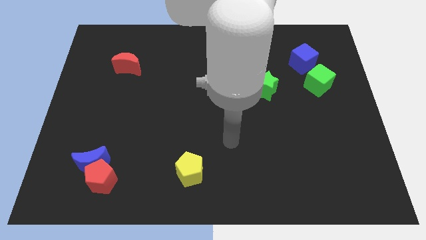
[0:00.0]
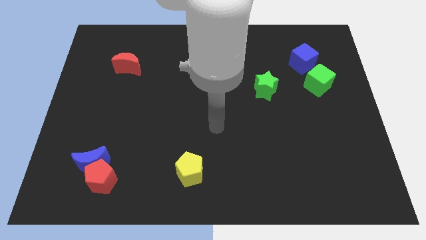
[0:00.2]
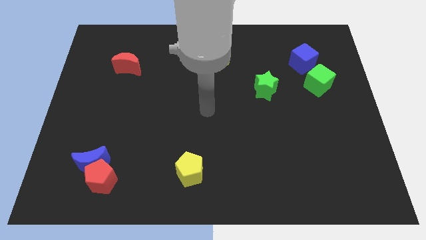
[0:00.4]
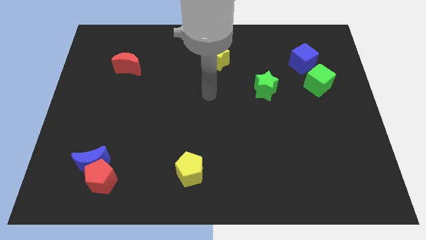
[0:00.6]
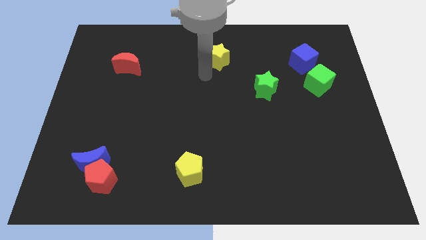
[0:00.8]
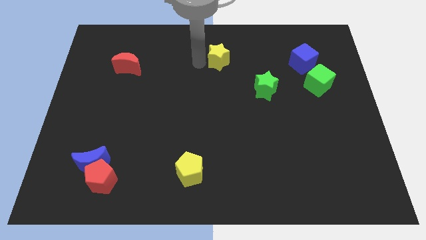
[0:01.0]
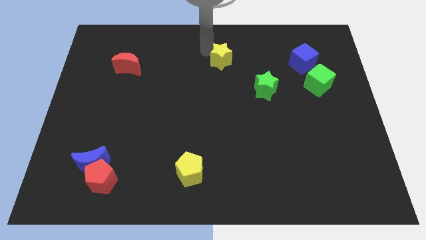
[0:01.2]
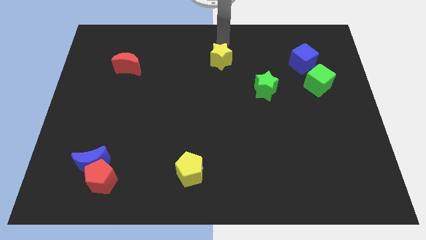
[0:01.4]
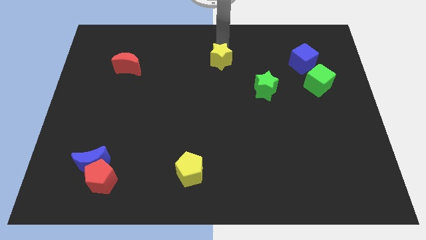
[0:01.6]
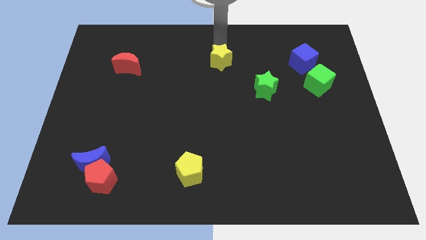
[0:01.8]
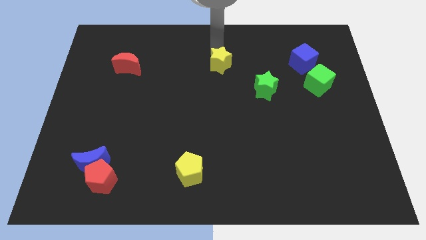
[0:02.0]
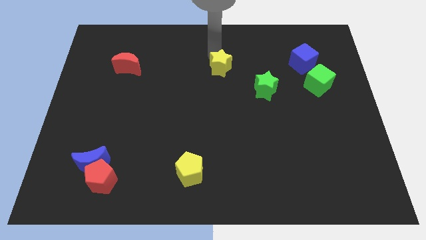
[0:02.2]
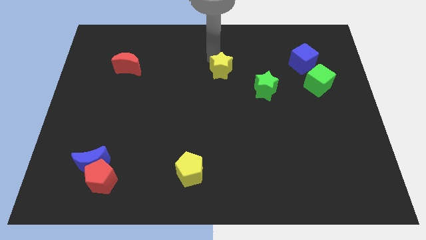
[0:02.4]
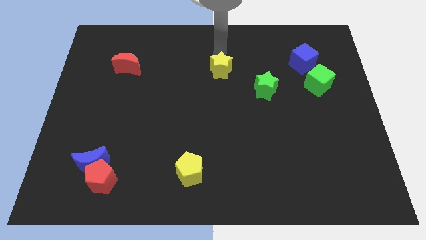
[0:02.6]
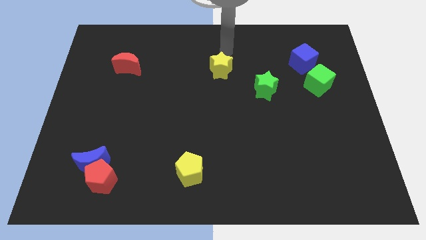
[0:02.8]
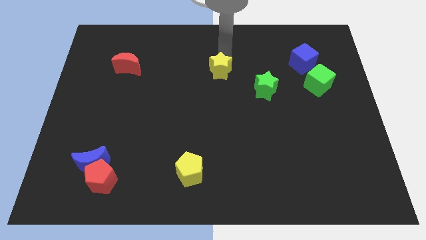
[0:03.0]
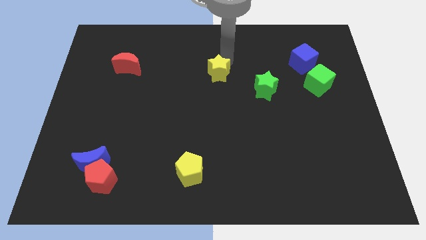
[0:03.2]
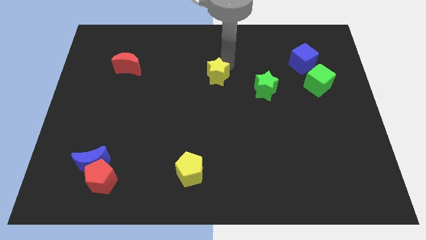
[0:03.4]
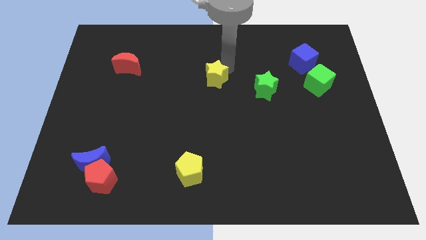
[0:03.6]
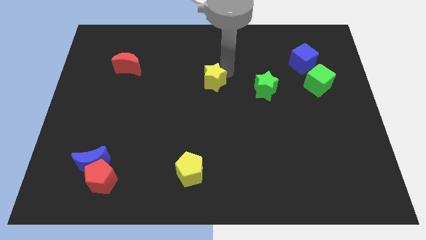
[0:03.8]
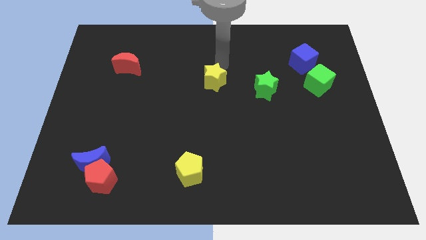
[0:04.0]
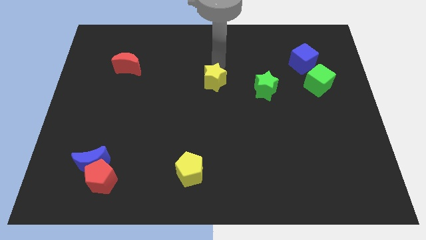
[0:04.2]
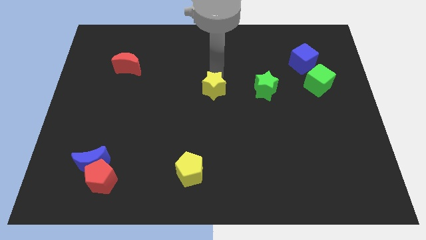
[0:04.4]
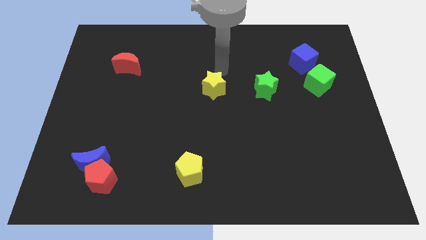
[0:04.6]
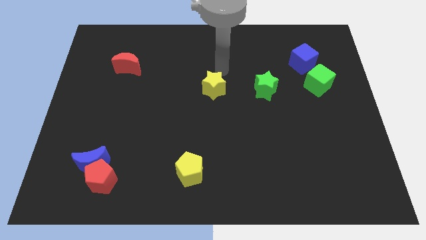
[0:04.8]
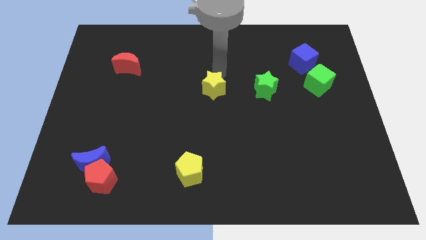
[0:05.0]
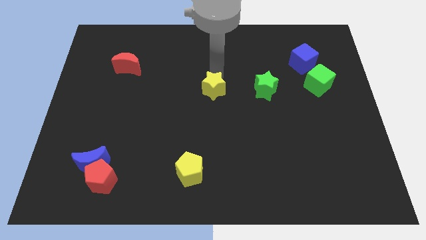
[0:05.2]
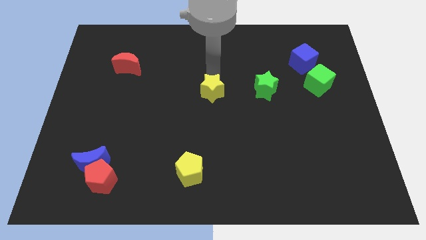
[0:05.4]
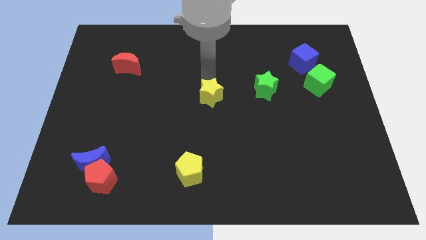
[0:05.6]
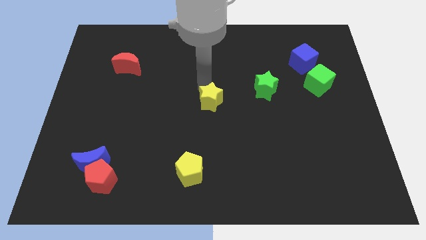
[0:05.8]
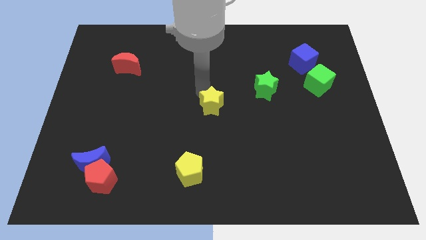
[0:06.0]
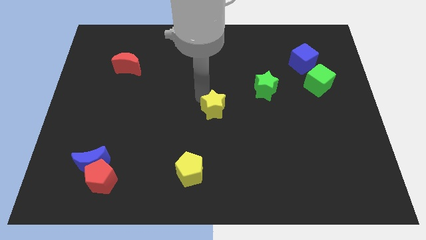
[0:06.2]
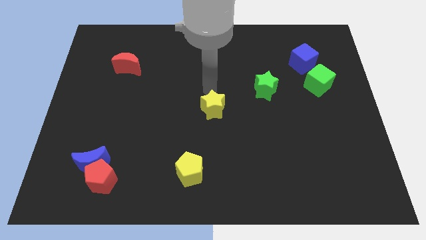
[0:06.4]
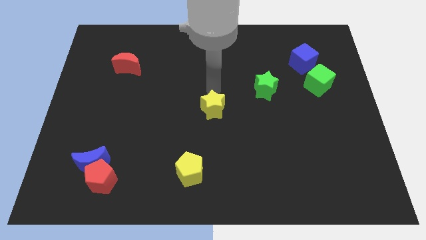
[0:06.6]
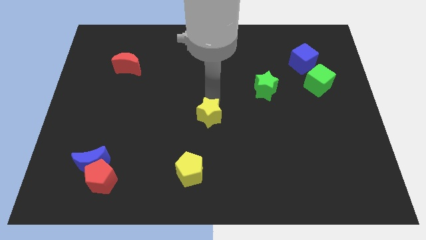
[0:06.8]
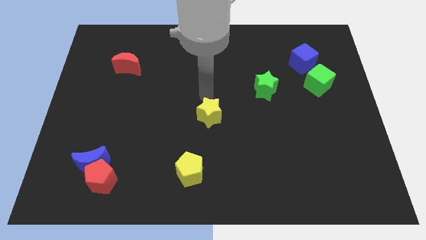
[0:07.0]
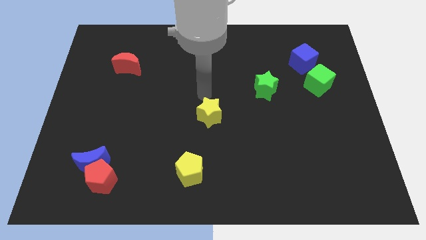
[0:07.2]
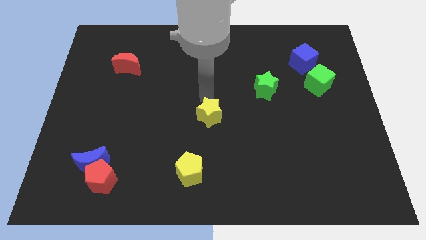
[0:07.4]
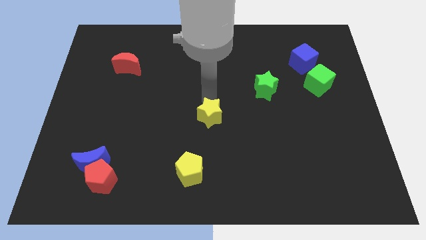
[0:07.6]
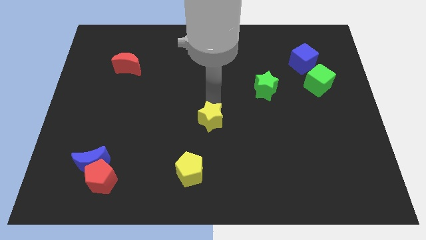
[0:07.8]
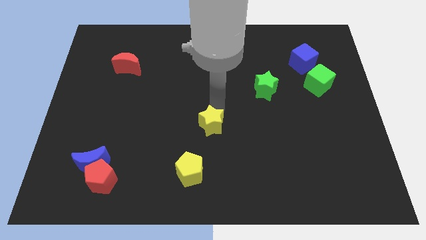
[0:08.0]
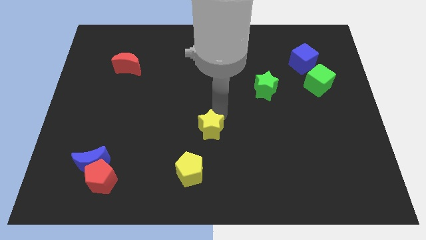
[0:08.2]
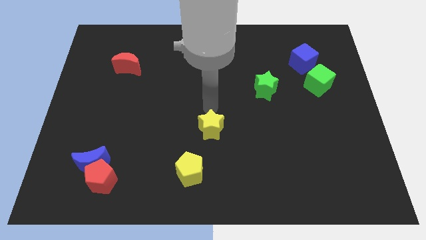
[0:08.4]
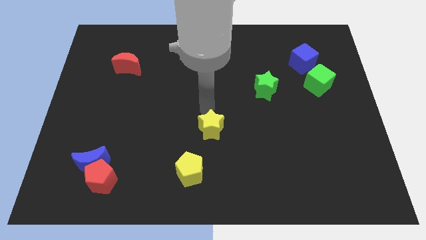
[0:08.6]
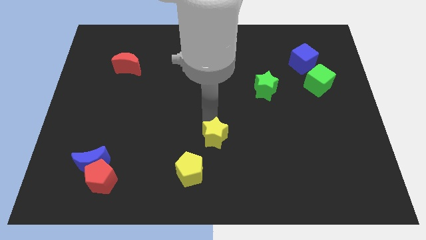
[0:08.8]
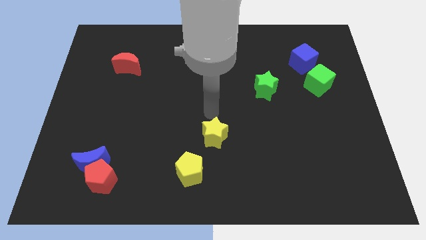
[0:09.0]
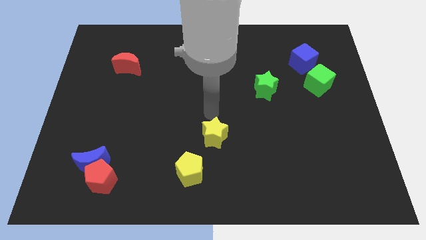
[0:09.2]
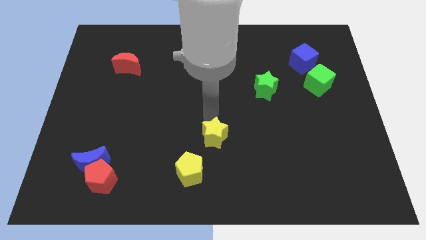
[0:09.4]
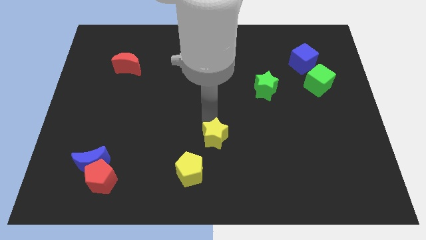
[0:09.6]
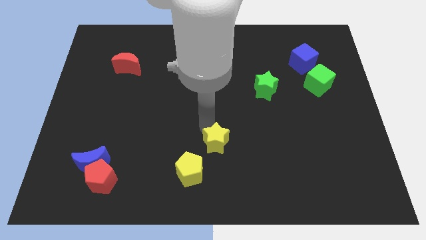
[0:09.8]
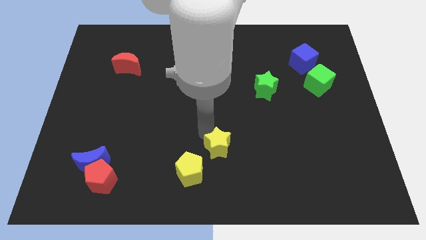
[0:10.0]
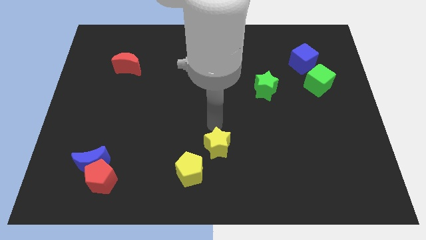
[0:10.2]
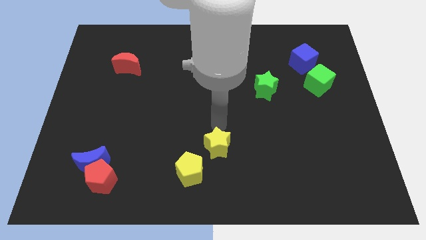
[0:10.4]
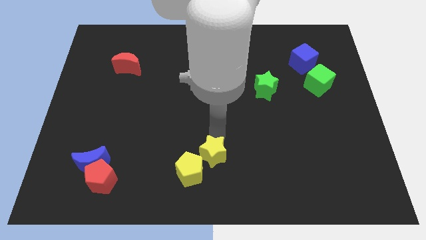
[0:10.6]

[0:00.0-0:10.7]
put the yellow star to the bottom side

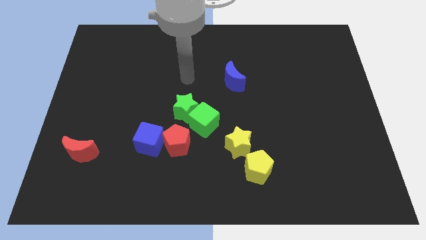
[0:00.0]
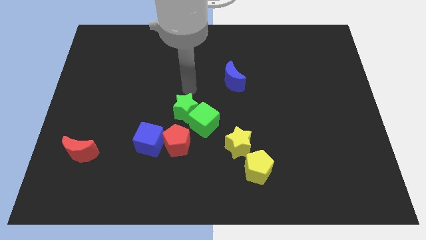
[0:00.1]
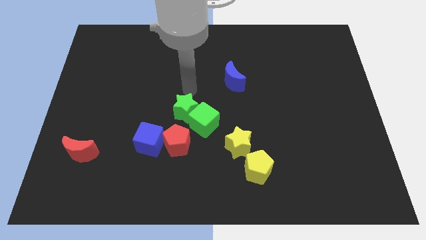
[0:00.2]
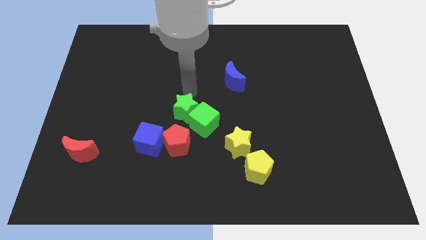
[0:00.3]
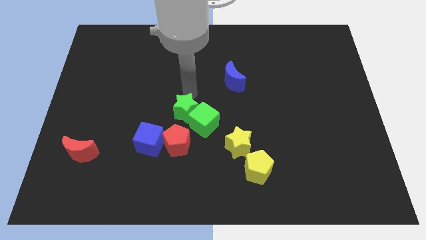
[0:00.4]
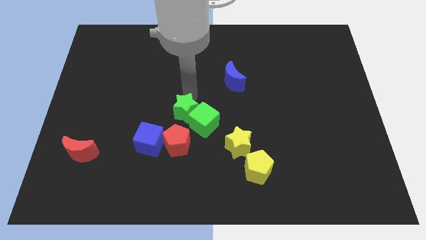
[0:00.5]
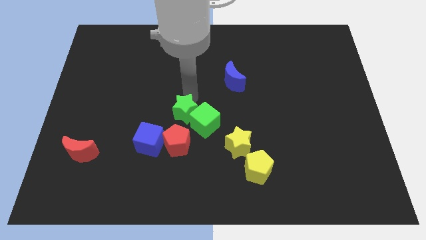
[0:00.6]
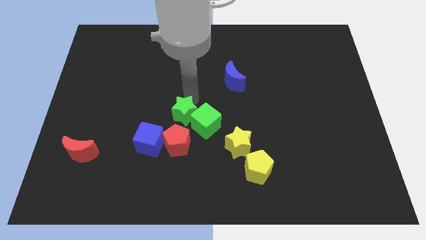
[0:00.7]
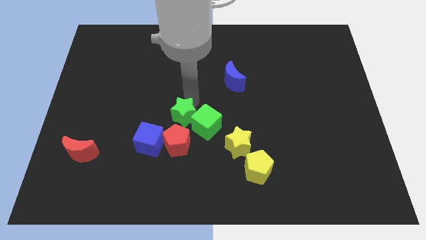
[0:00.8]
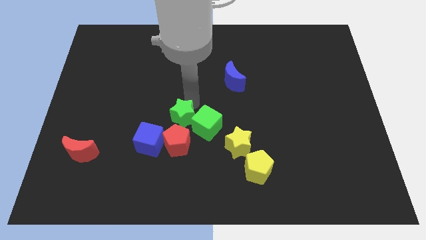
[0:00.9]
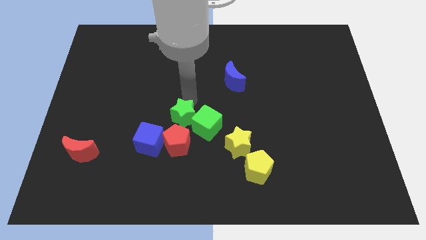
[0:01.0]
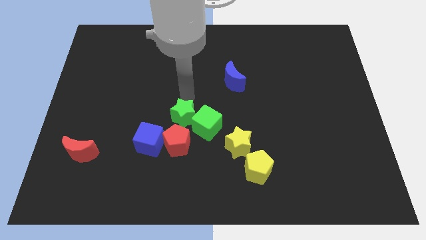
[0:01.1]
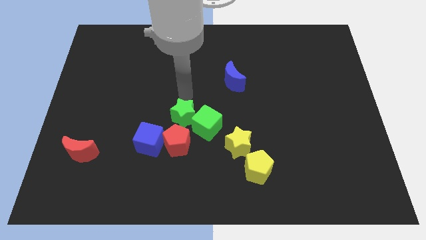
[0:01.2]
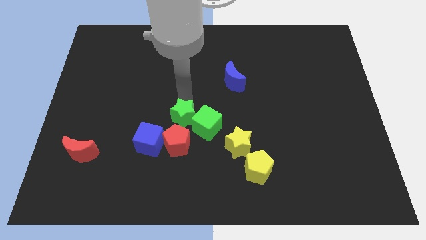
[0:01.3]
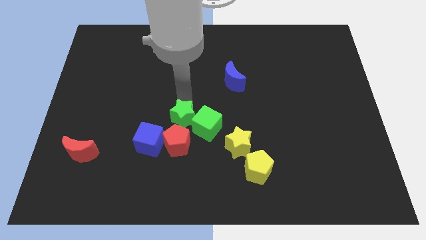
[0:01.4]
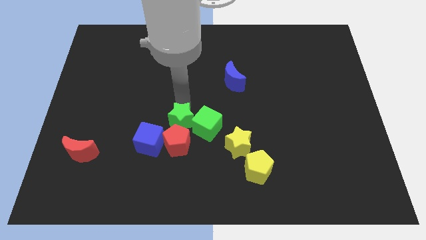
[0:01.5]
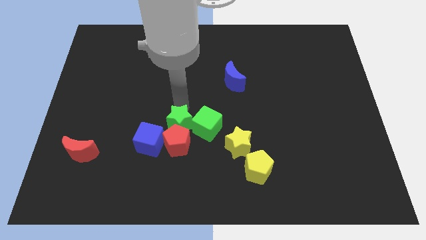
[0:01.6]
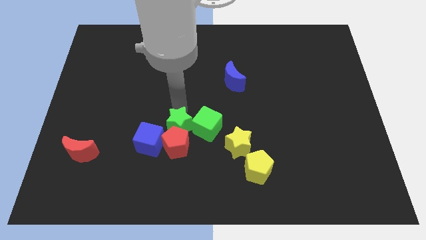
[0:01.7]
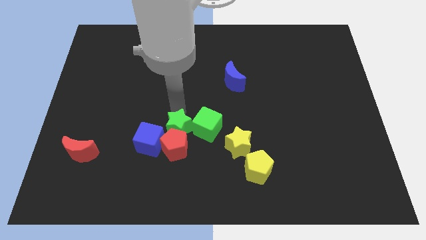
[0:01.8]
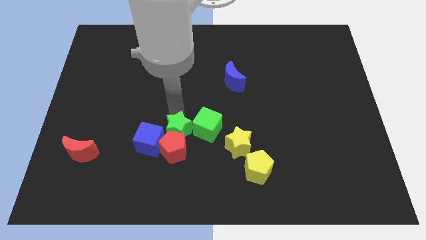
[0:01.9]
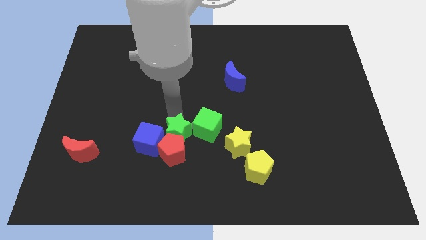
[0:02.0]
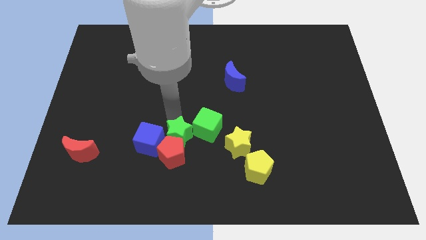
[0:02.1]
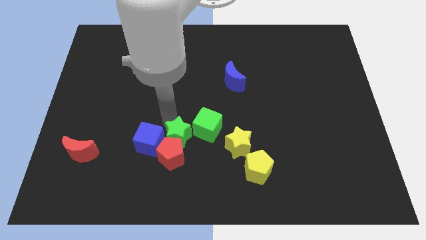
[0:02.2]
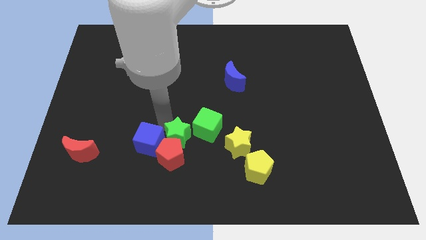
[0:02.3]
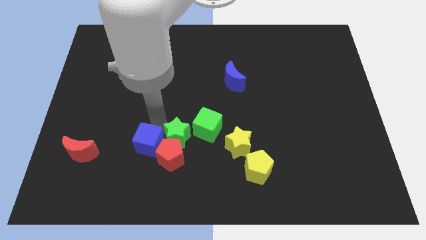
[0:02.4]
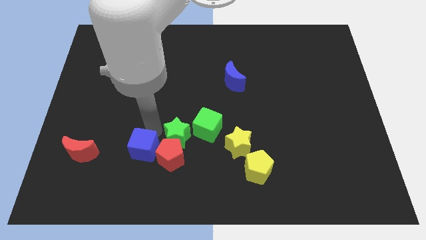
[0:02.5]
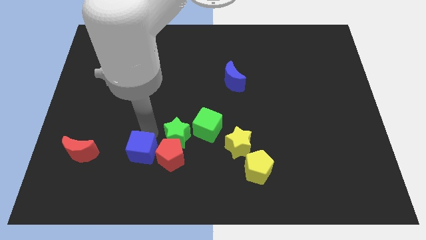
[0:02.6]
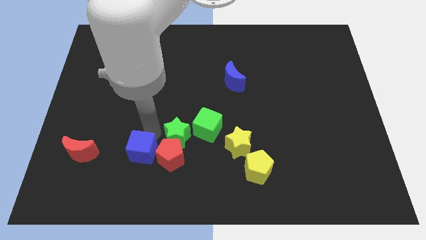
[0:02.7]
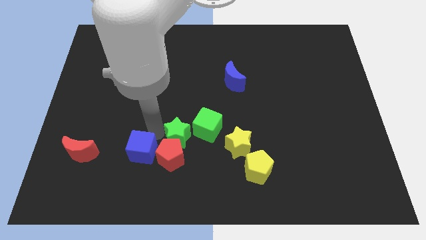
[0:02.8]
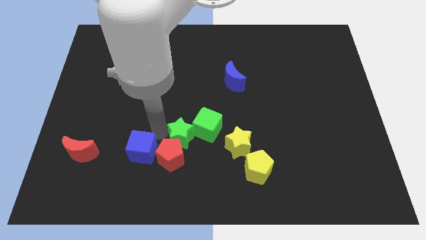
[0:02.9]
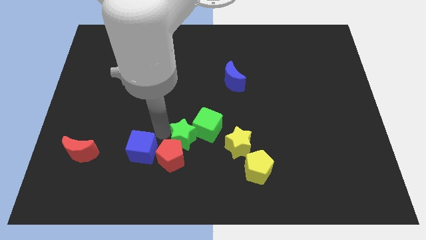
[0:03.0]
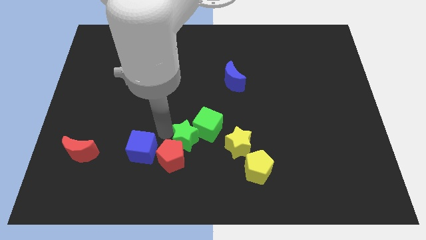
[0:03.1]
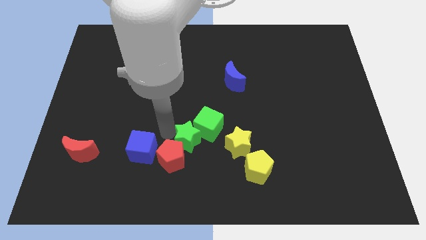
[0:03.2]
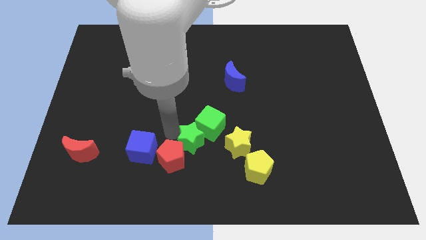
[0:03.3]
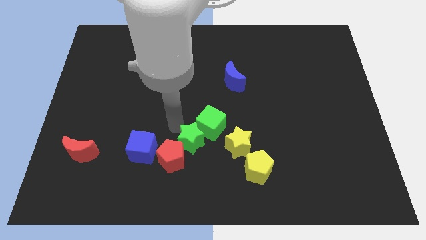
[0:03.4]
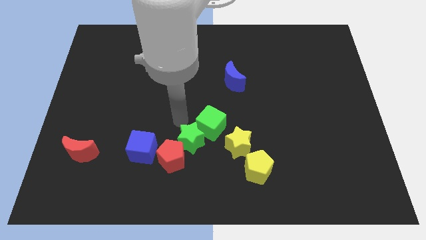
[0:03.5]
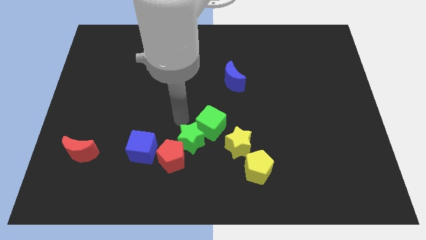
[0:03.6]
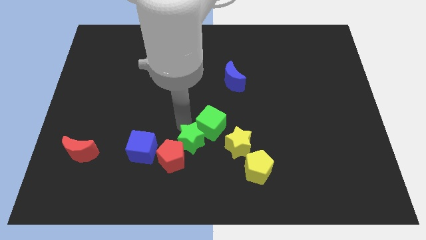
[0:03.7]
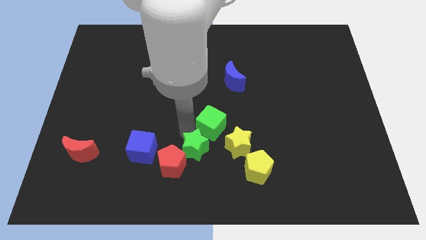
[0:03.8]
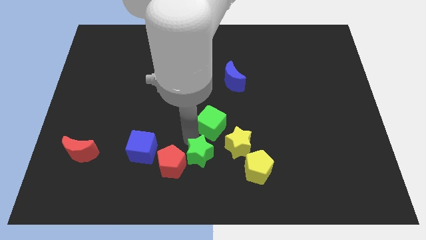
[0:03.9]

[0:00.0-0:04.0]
put the green star to the bottom
